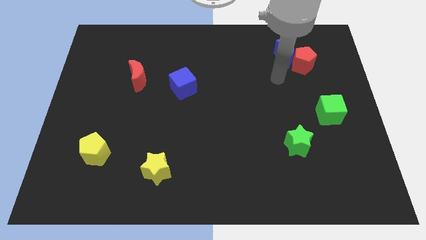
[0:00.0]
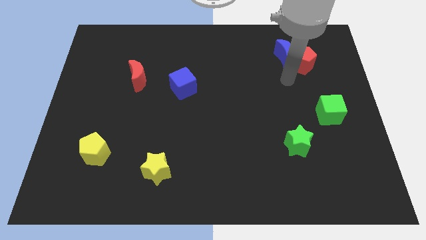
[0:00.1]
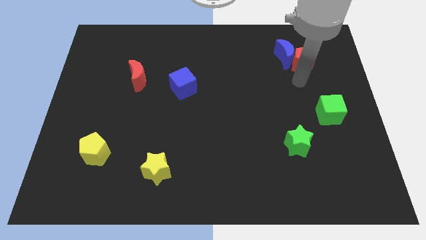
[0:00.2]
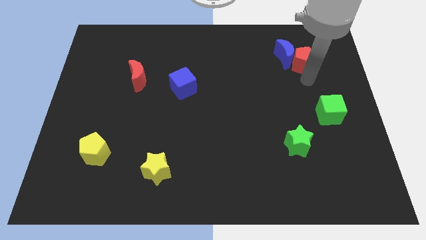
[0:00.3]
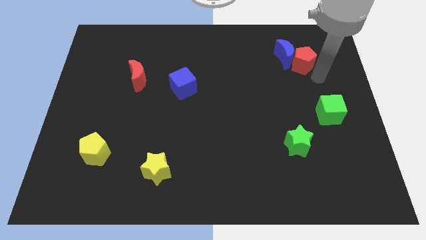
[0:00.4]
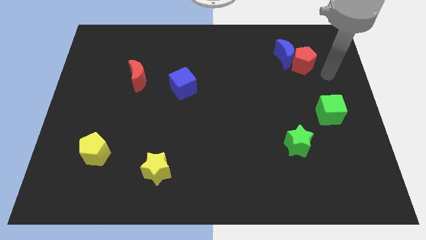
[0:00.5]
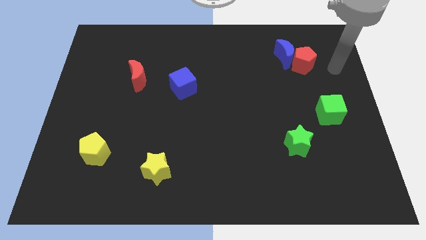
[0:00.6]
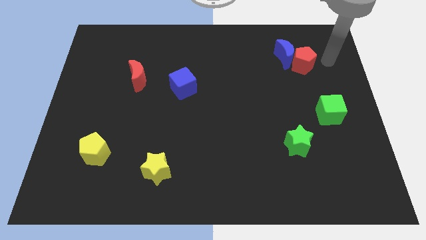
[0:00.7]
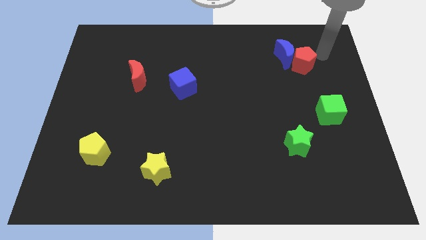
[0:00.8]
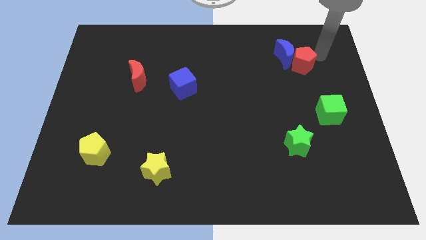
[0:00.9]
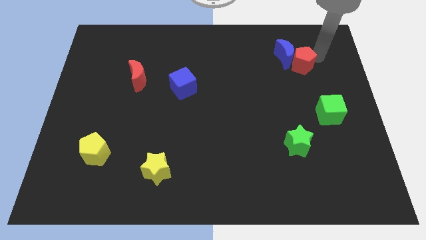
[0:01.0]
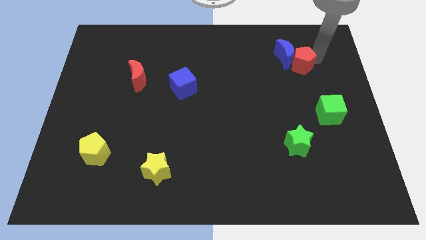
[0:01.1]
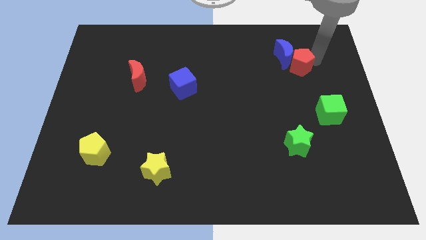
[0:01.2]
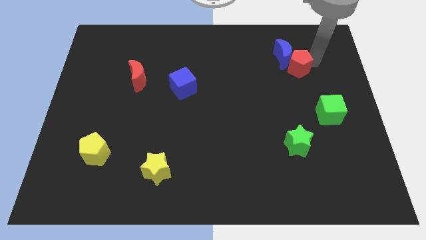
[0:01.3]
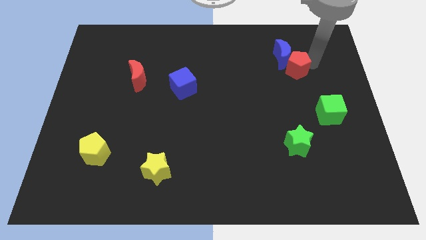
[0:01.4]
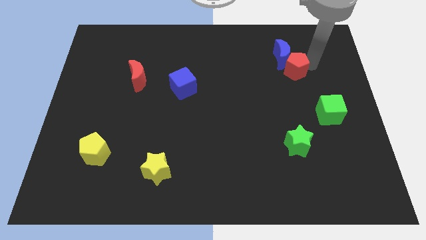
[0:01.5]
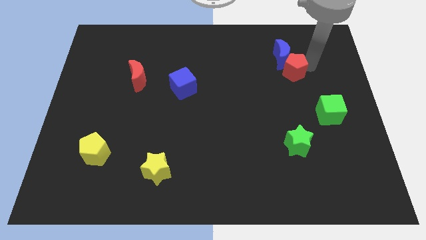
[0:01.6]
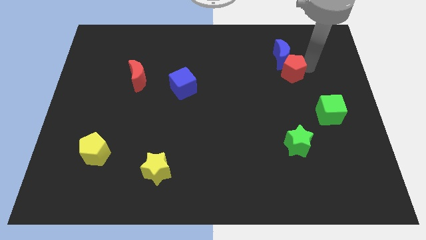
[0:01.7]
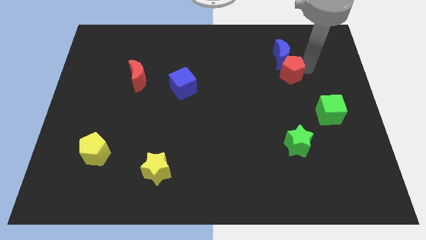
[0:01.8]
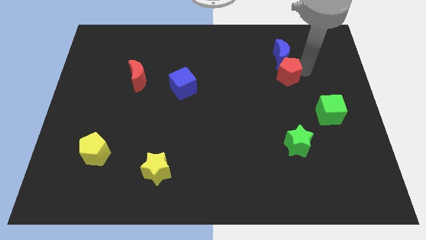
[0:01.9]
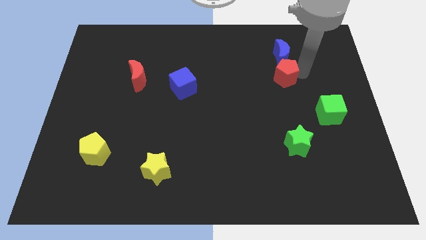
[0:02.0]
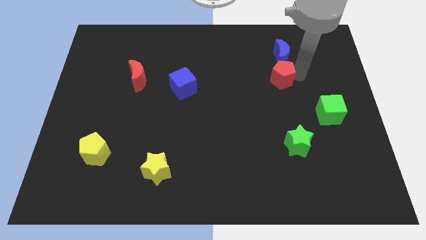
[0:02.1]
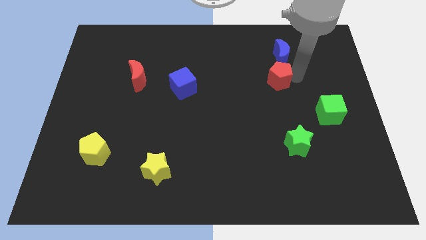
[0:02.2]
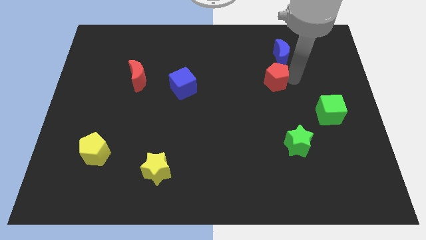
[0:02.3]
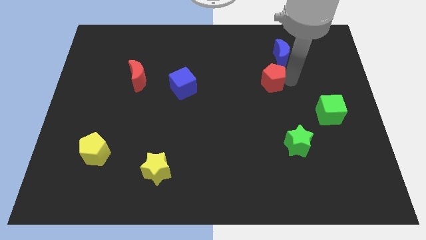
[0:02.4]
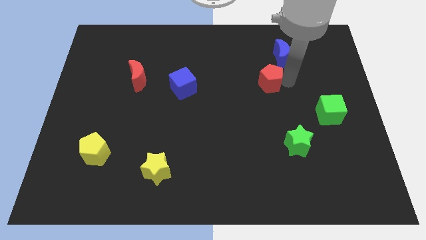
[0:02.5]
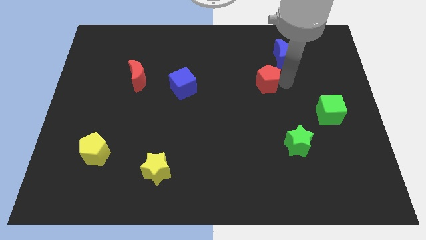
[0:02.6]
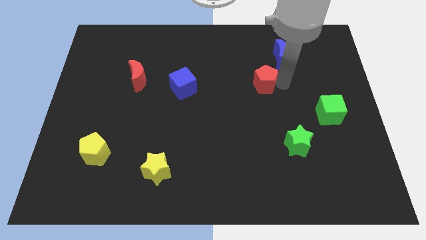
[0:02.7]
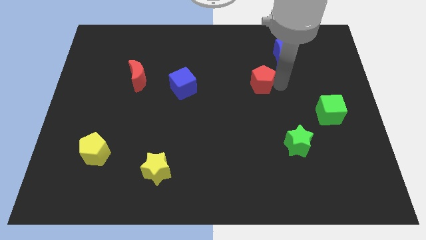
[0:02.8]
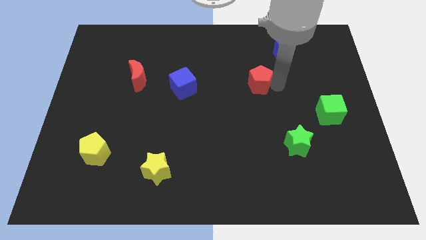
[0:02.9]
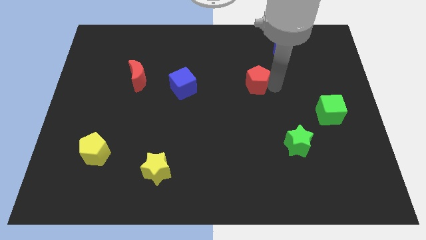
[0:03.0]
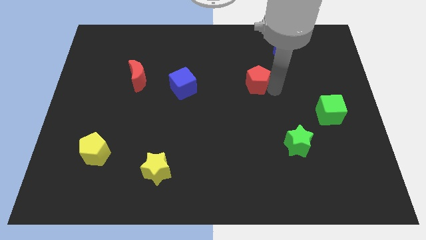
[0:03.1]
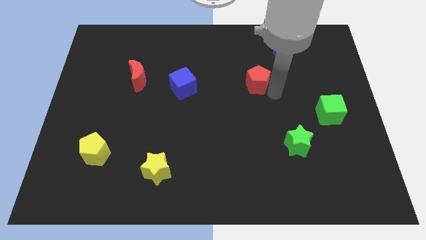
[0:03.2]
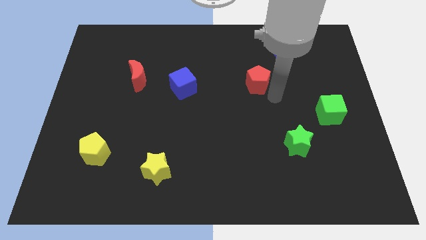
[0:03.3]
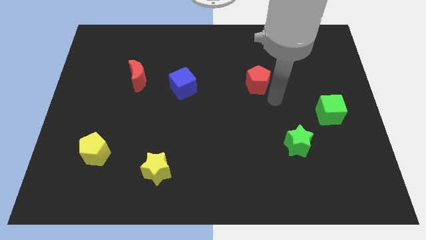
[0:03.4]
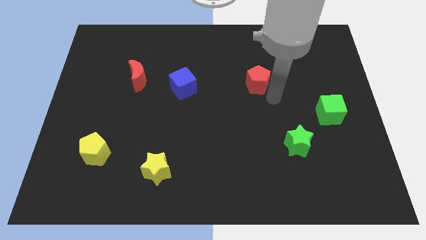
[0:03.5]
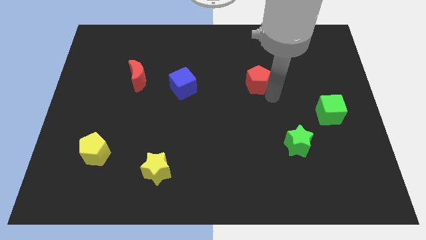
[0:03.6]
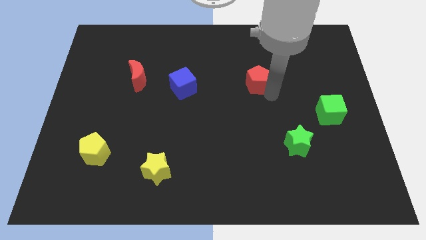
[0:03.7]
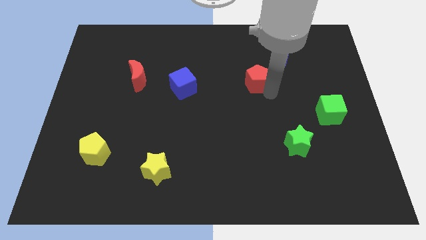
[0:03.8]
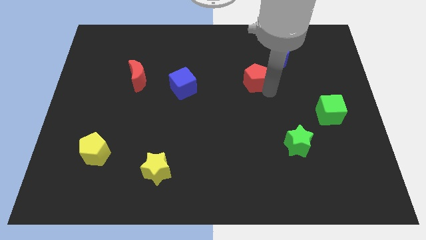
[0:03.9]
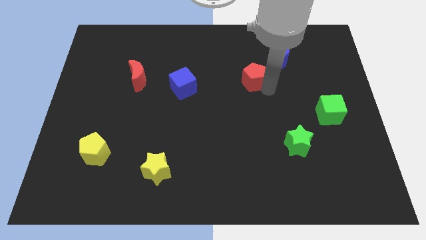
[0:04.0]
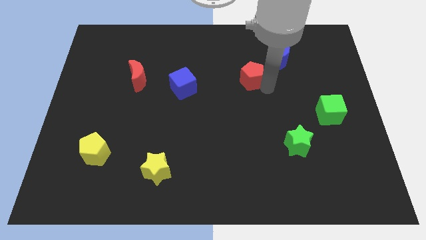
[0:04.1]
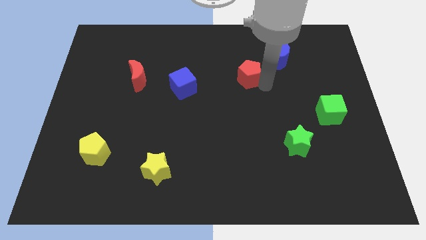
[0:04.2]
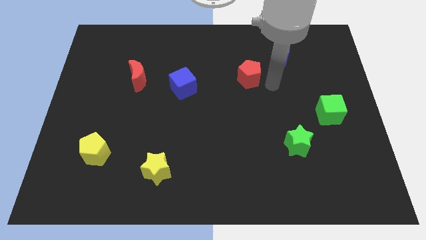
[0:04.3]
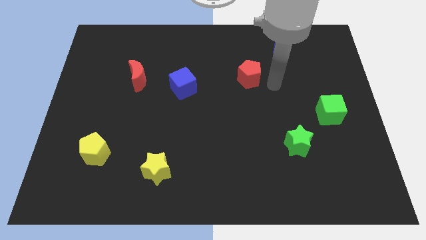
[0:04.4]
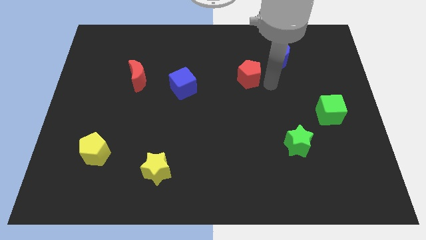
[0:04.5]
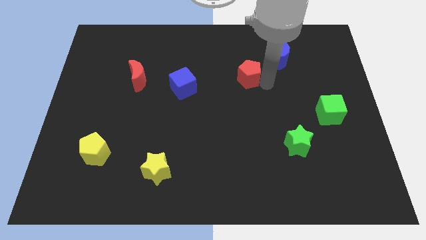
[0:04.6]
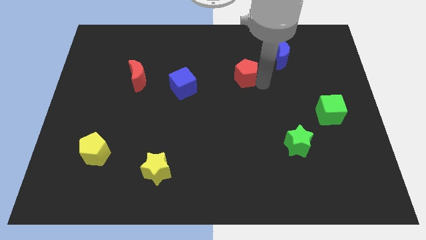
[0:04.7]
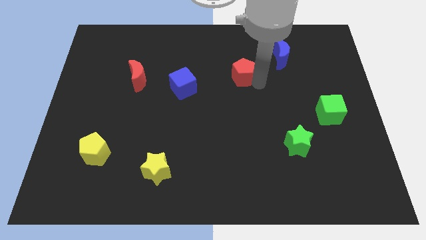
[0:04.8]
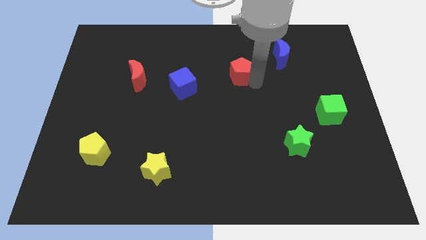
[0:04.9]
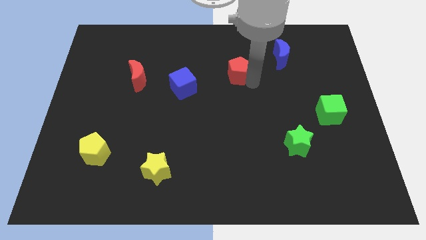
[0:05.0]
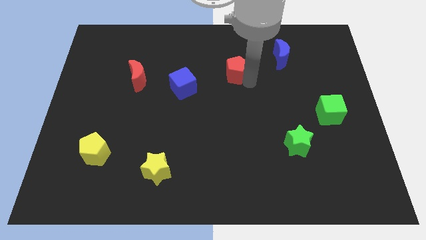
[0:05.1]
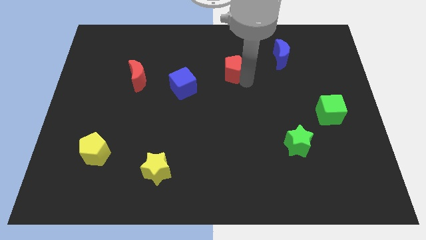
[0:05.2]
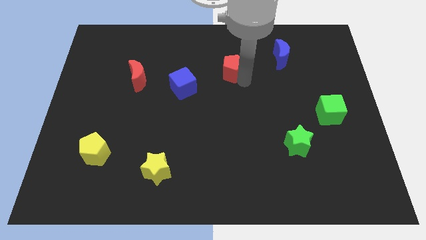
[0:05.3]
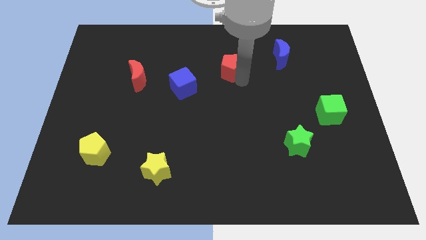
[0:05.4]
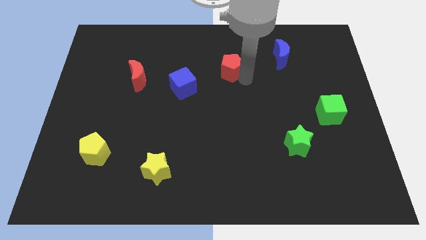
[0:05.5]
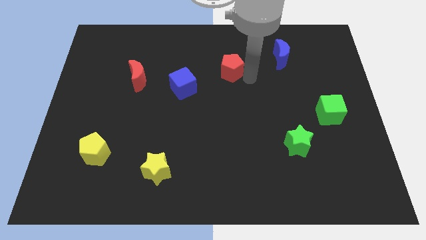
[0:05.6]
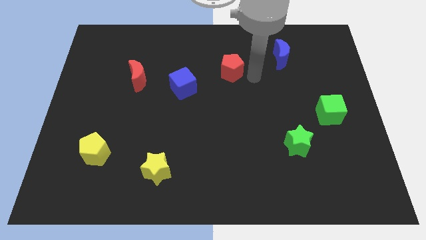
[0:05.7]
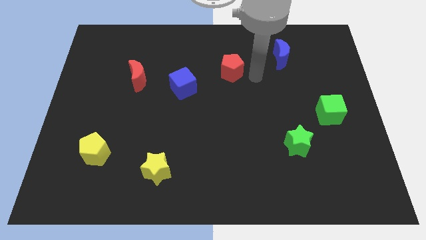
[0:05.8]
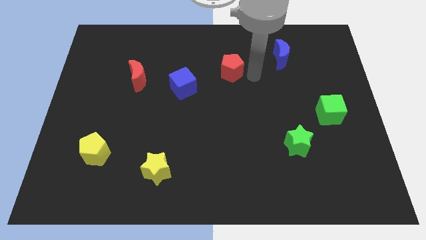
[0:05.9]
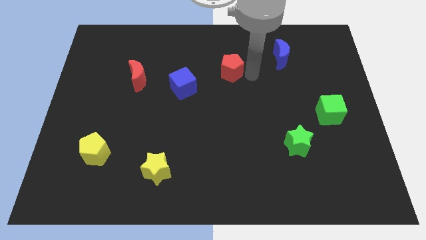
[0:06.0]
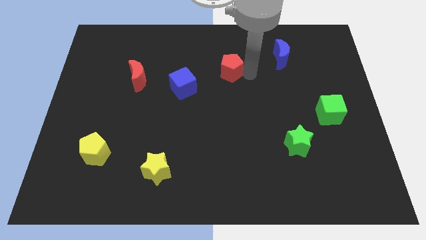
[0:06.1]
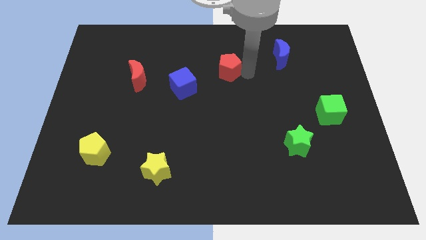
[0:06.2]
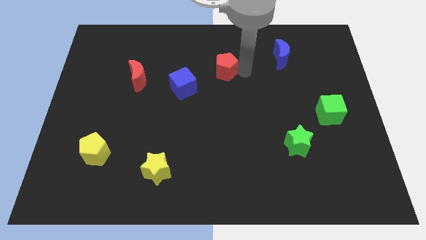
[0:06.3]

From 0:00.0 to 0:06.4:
push the red pentagon left

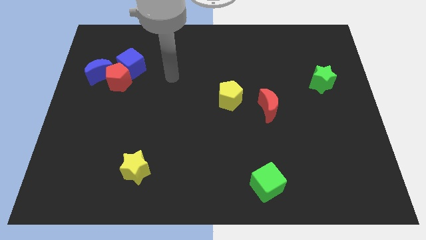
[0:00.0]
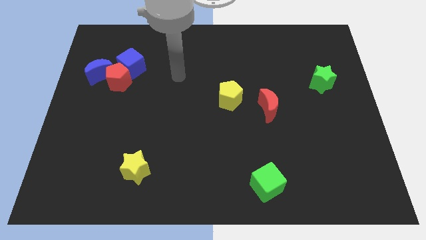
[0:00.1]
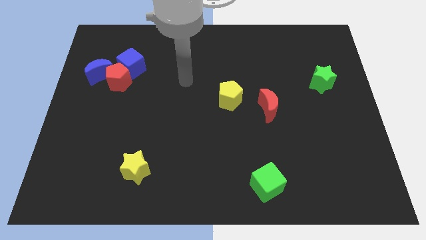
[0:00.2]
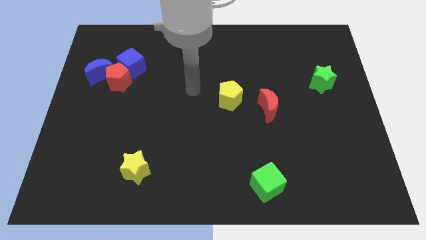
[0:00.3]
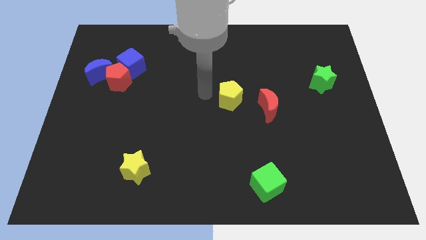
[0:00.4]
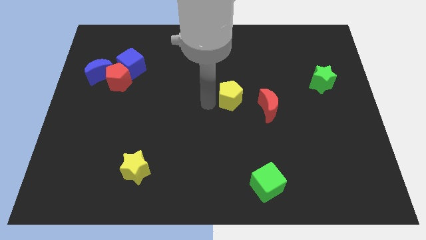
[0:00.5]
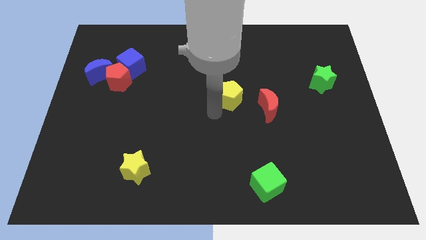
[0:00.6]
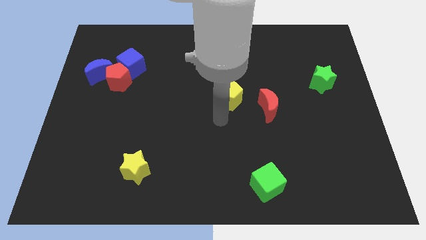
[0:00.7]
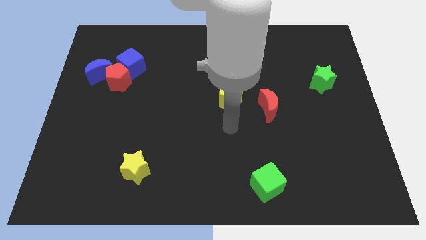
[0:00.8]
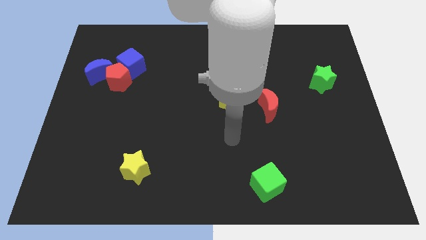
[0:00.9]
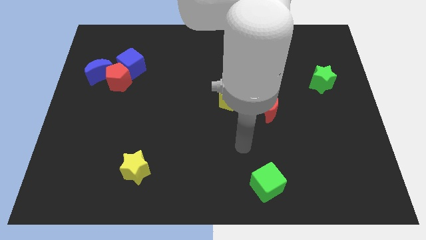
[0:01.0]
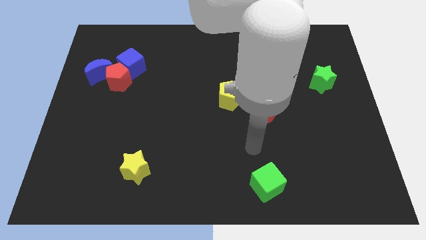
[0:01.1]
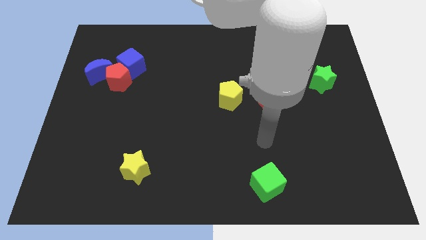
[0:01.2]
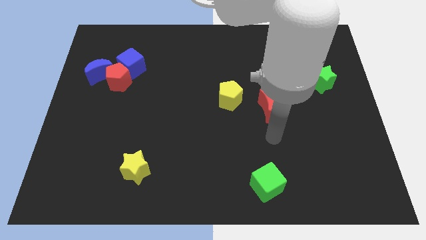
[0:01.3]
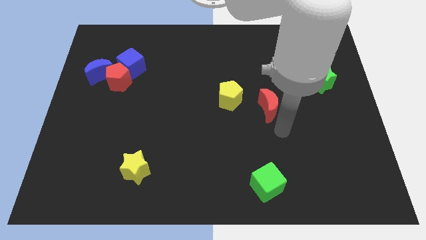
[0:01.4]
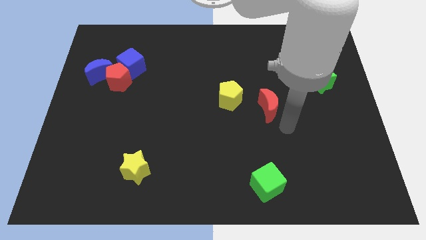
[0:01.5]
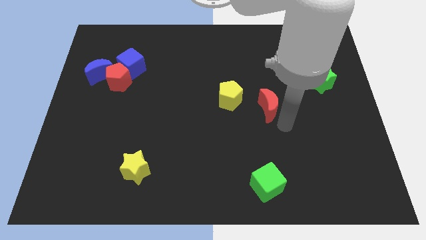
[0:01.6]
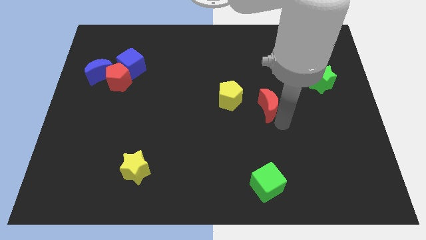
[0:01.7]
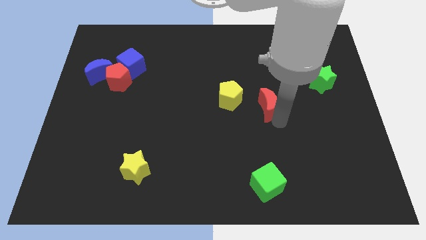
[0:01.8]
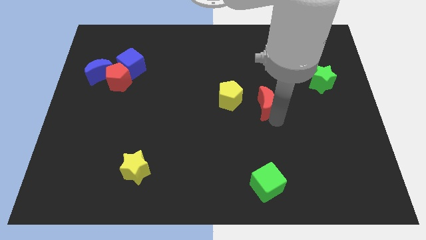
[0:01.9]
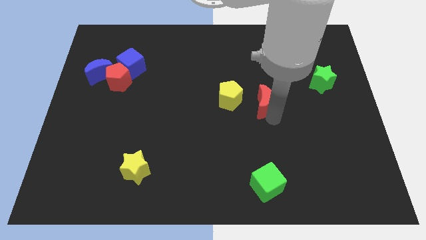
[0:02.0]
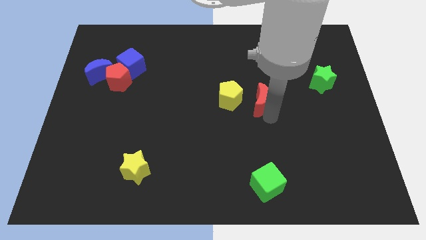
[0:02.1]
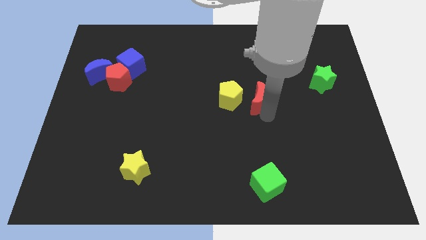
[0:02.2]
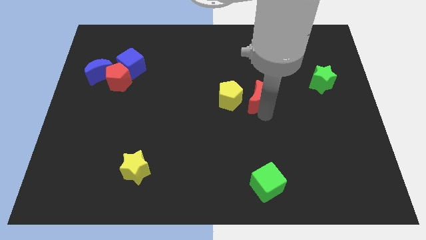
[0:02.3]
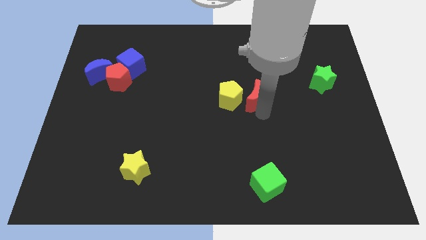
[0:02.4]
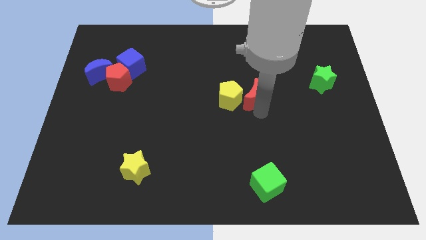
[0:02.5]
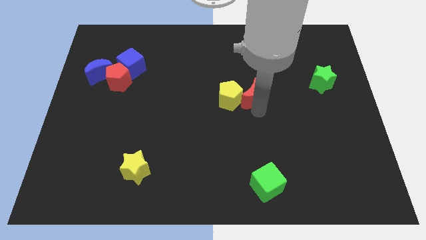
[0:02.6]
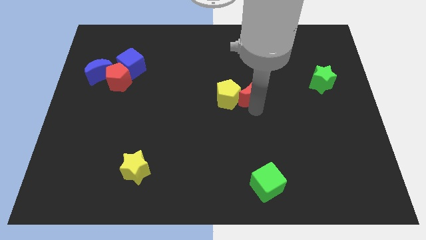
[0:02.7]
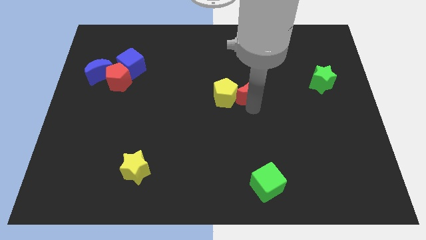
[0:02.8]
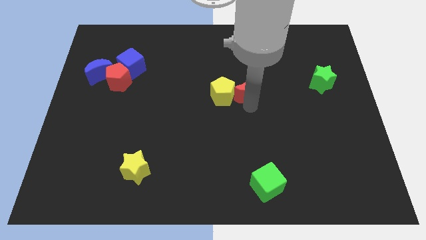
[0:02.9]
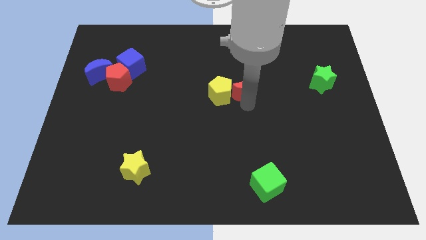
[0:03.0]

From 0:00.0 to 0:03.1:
slide the red moon up and then to the left a bit
